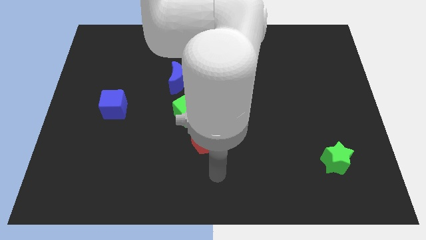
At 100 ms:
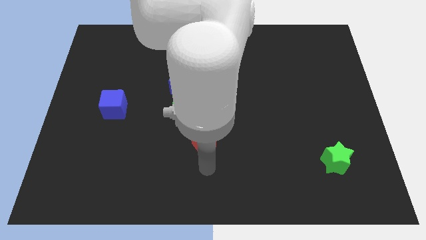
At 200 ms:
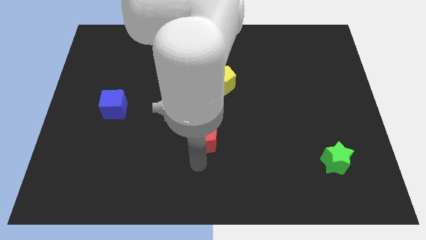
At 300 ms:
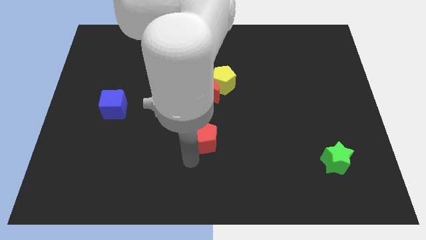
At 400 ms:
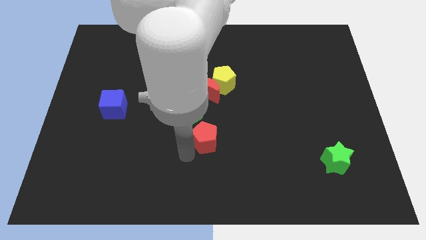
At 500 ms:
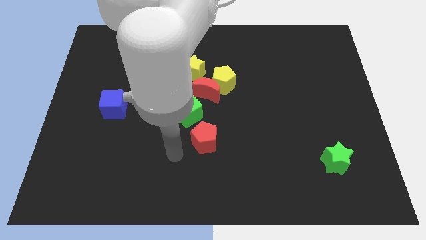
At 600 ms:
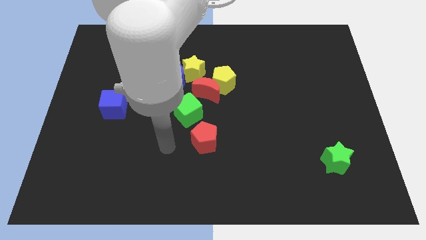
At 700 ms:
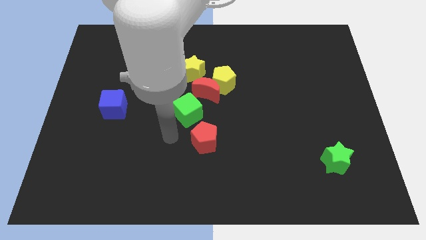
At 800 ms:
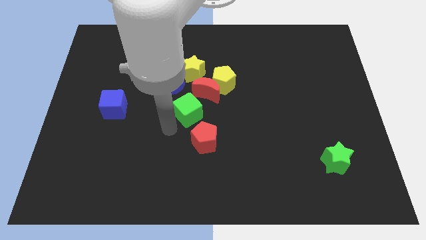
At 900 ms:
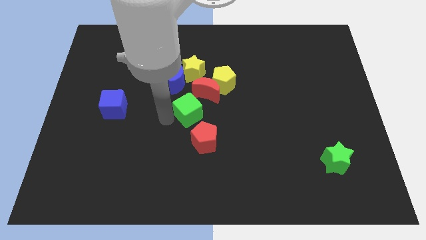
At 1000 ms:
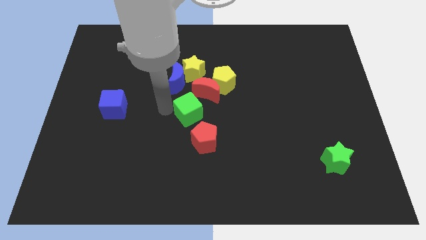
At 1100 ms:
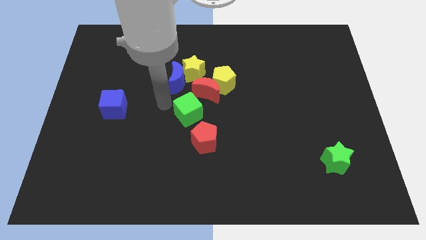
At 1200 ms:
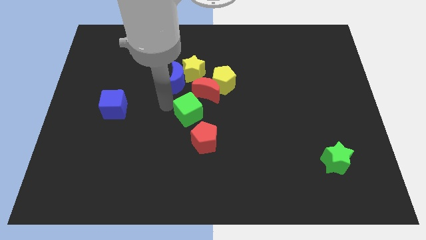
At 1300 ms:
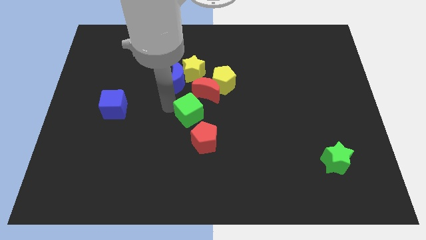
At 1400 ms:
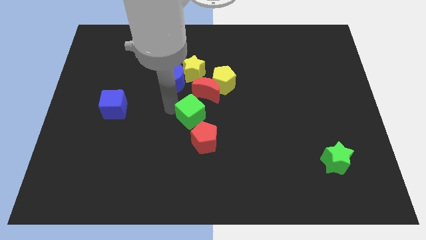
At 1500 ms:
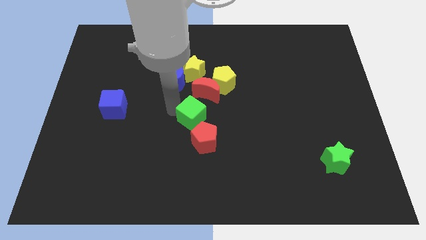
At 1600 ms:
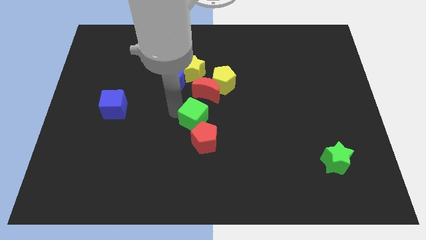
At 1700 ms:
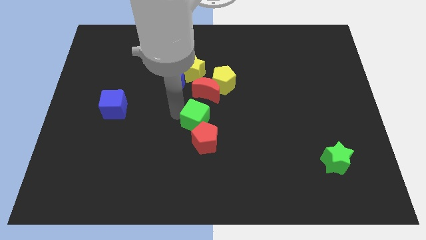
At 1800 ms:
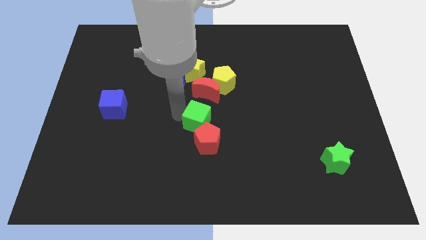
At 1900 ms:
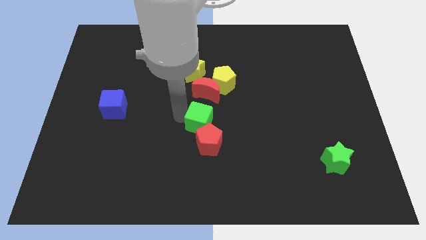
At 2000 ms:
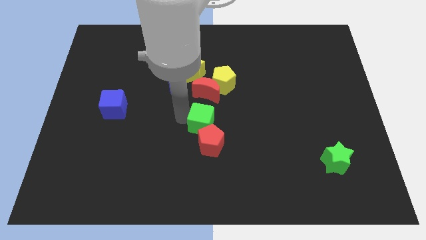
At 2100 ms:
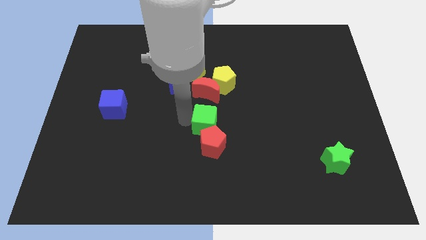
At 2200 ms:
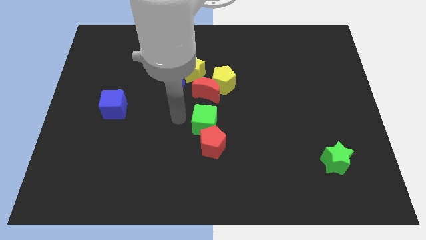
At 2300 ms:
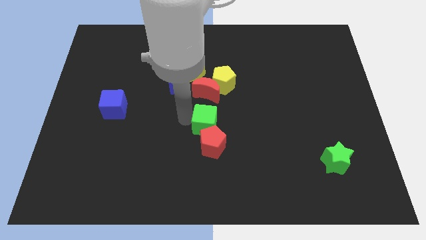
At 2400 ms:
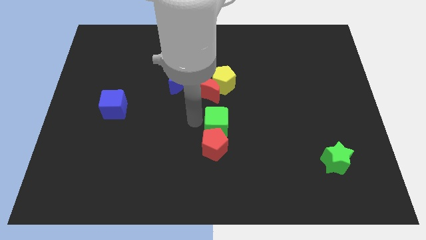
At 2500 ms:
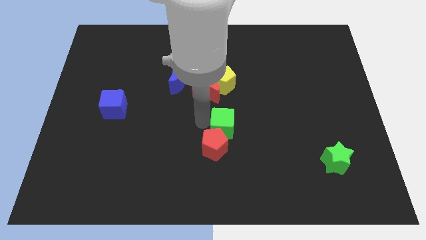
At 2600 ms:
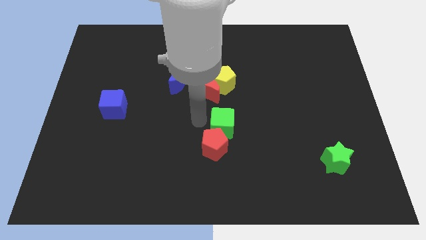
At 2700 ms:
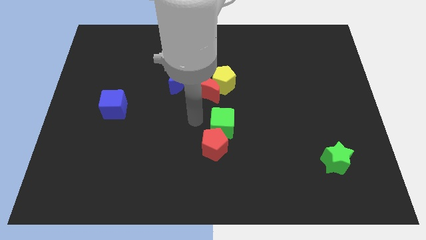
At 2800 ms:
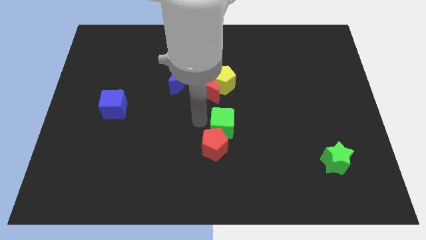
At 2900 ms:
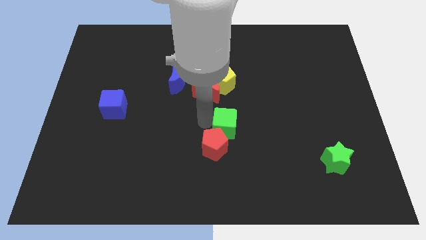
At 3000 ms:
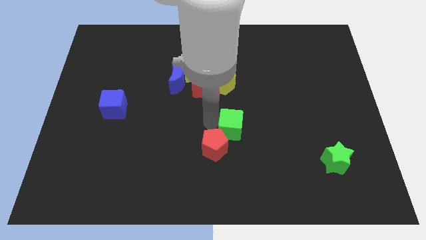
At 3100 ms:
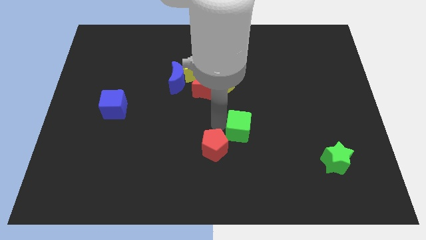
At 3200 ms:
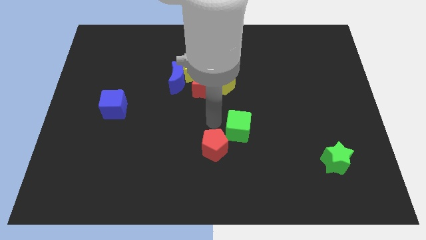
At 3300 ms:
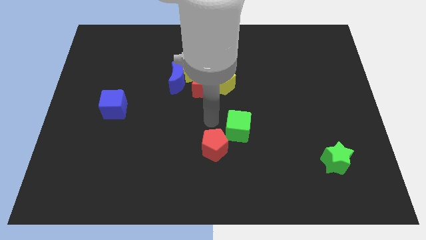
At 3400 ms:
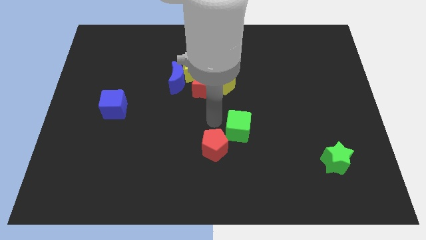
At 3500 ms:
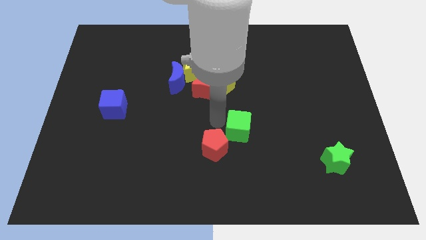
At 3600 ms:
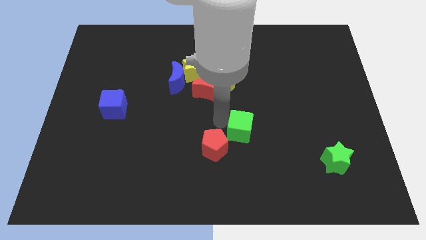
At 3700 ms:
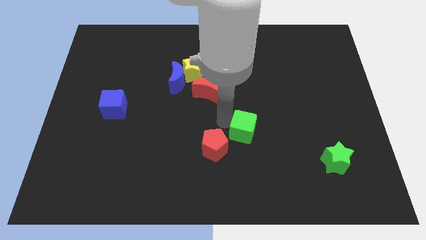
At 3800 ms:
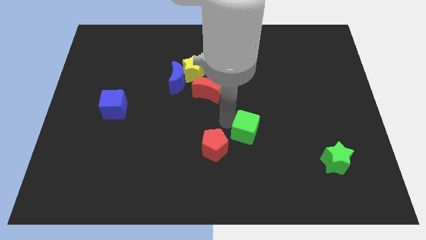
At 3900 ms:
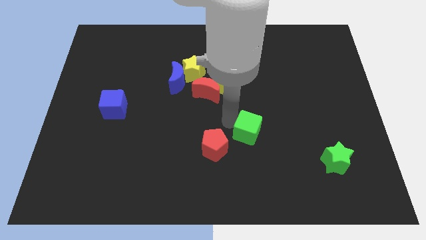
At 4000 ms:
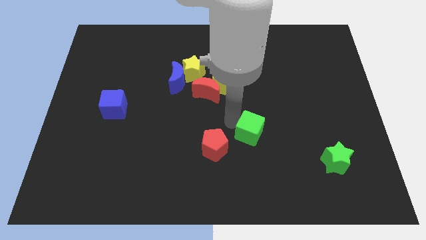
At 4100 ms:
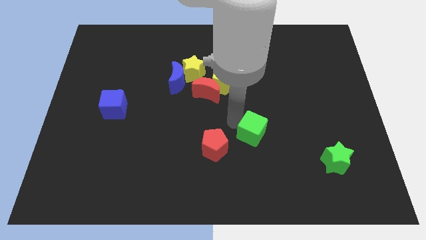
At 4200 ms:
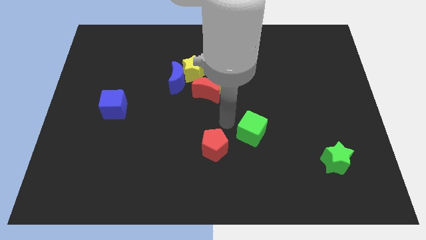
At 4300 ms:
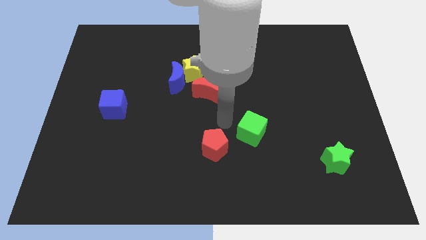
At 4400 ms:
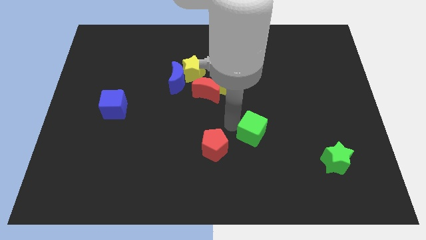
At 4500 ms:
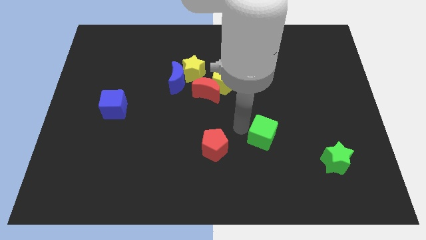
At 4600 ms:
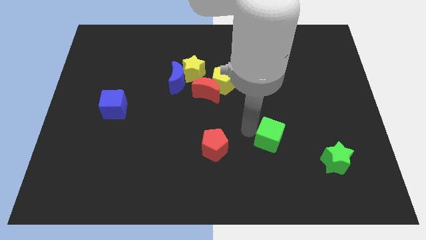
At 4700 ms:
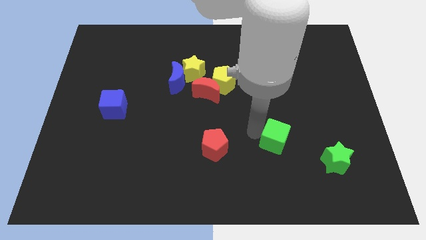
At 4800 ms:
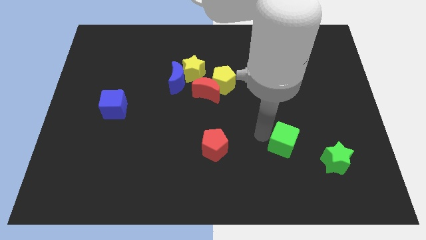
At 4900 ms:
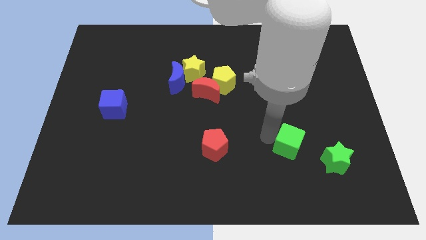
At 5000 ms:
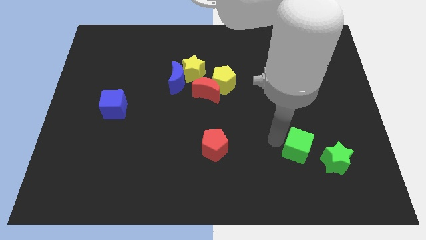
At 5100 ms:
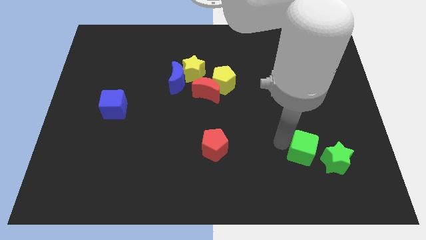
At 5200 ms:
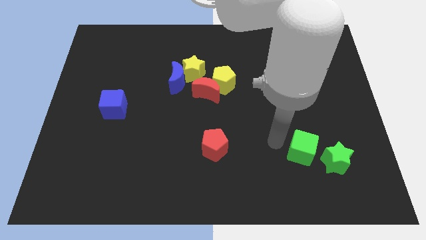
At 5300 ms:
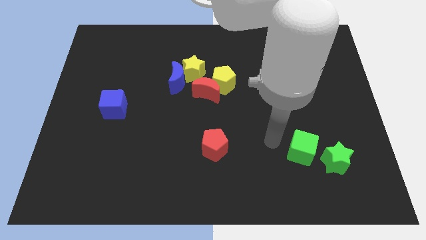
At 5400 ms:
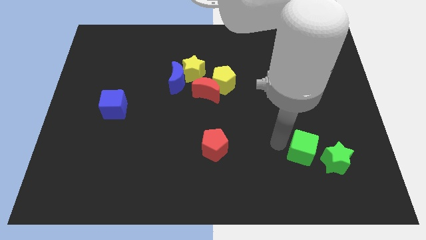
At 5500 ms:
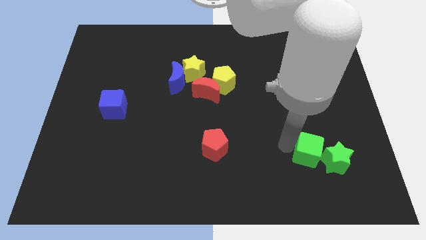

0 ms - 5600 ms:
put the green cube next to the green star

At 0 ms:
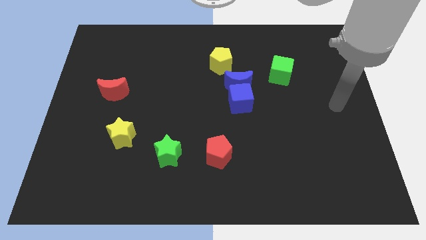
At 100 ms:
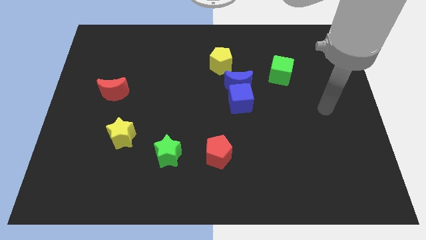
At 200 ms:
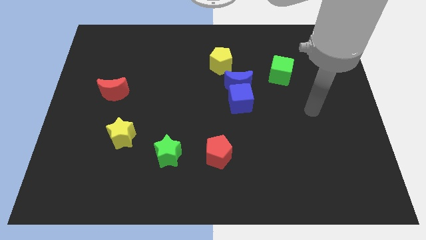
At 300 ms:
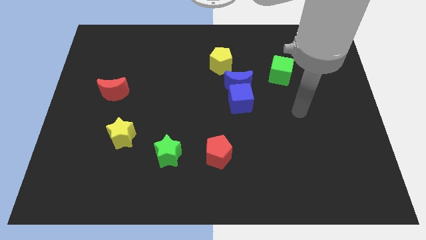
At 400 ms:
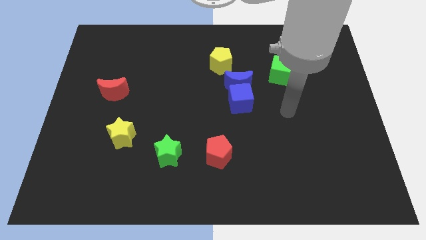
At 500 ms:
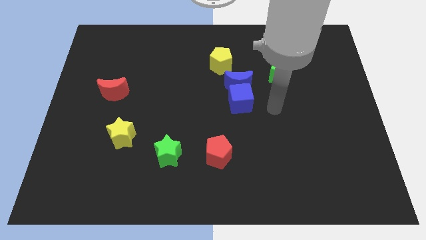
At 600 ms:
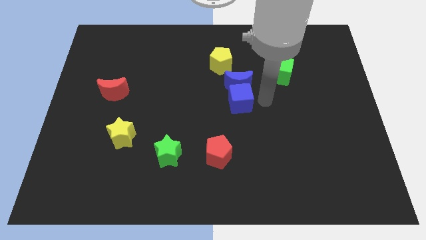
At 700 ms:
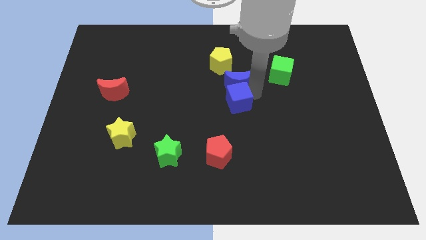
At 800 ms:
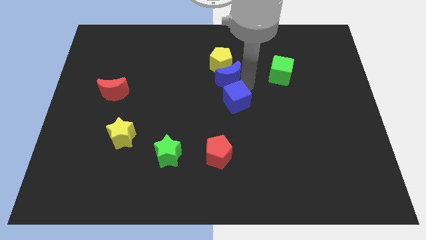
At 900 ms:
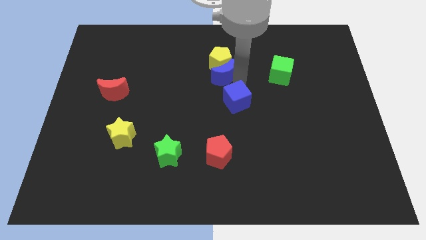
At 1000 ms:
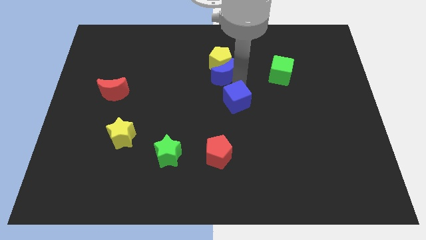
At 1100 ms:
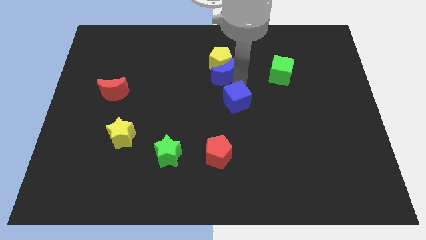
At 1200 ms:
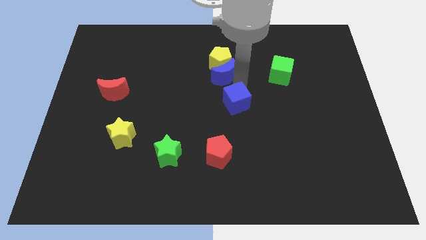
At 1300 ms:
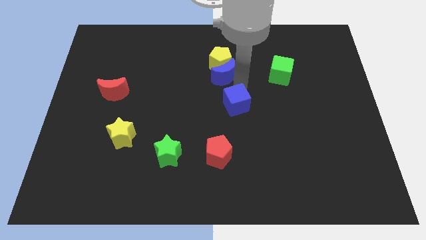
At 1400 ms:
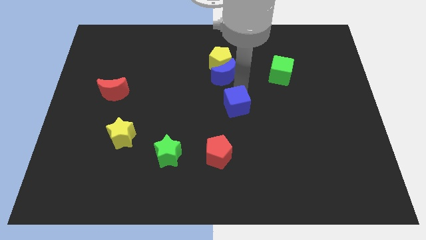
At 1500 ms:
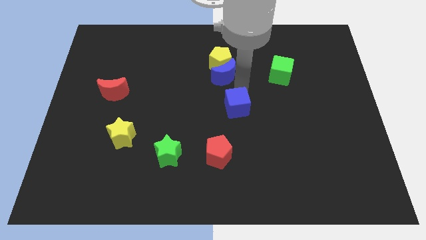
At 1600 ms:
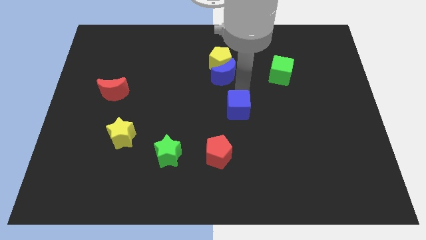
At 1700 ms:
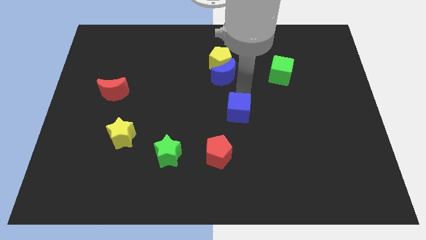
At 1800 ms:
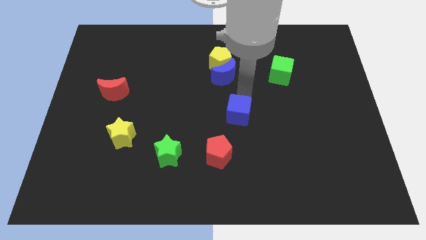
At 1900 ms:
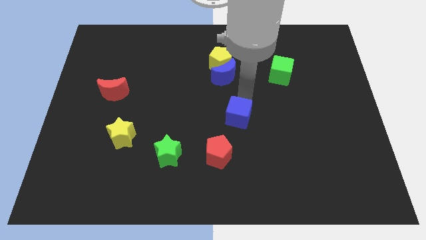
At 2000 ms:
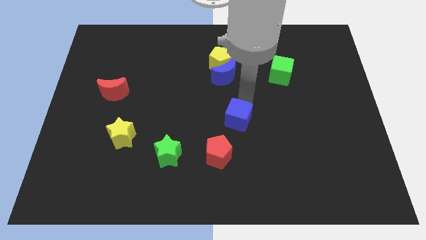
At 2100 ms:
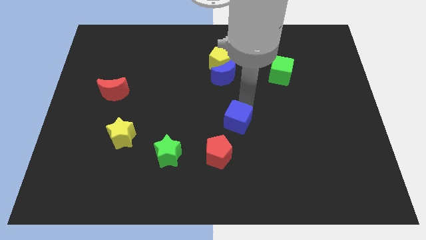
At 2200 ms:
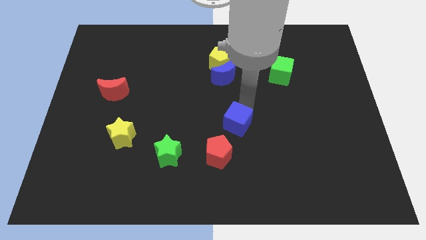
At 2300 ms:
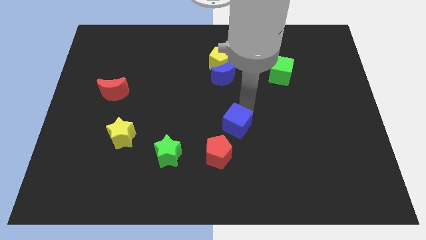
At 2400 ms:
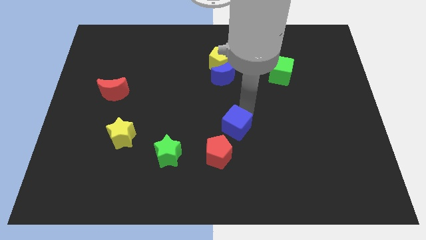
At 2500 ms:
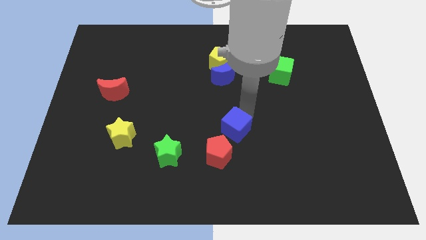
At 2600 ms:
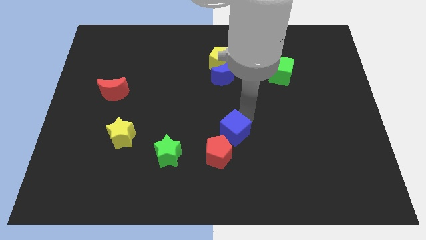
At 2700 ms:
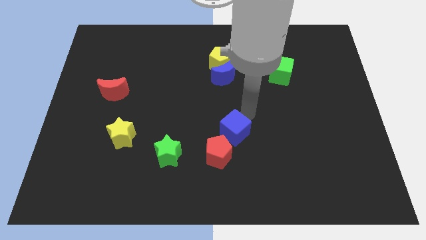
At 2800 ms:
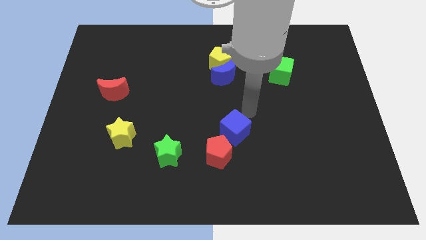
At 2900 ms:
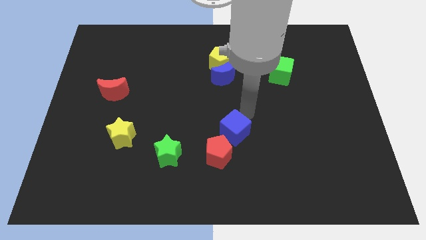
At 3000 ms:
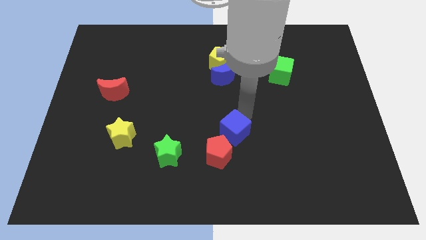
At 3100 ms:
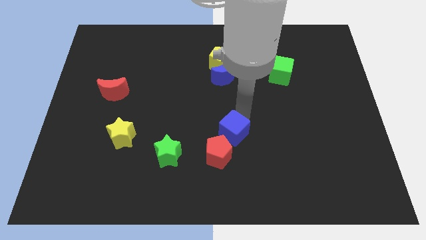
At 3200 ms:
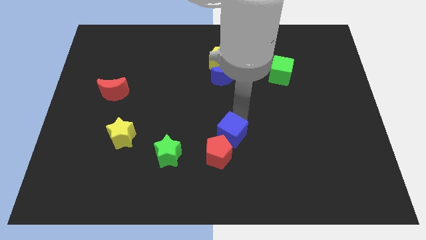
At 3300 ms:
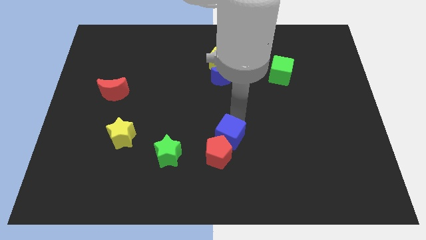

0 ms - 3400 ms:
slide the blue cube next to the red pentagon
